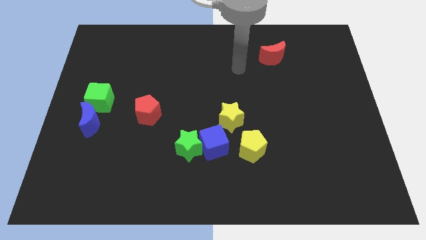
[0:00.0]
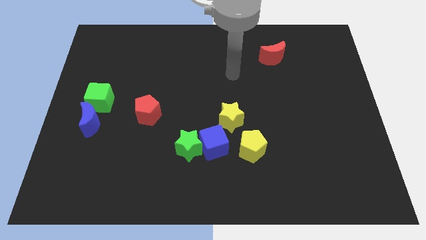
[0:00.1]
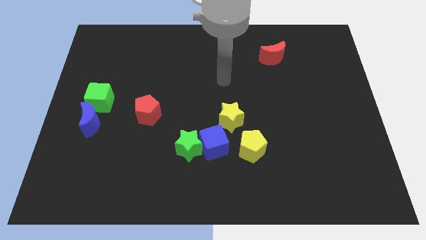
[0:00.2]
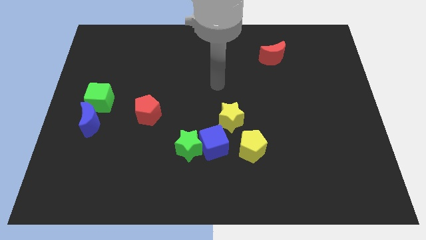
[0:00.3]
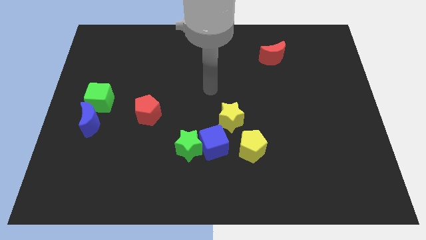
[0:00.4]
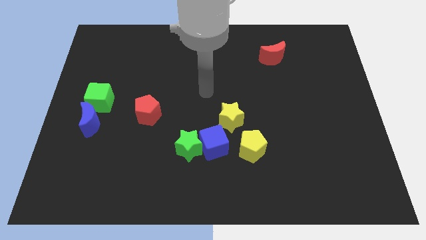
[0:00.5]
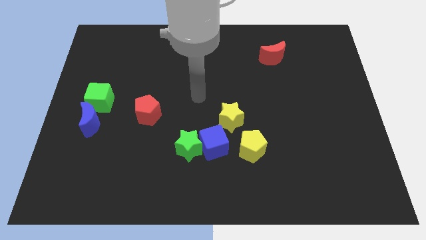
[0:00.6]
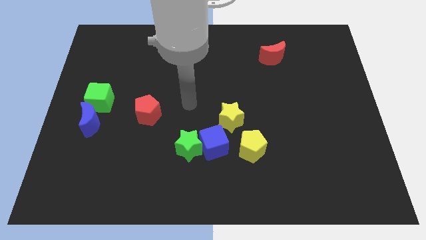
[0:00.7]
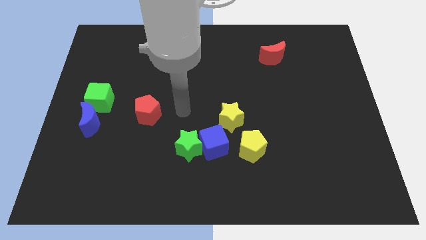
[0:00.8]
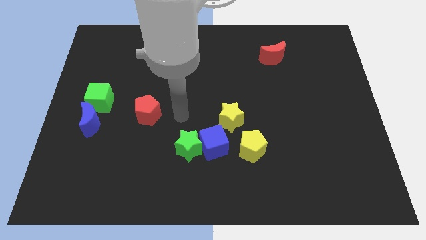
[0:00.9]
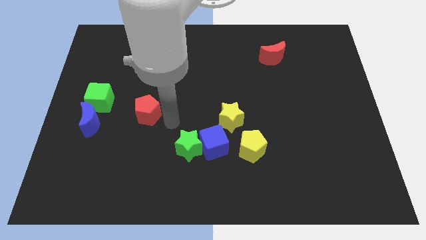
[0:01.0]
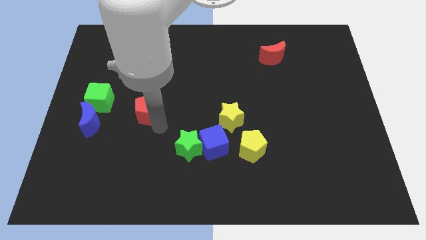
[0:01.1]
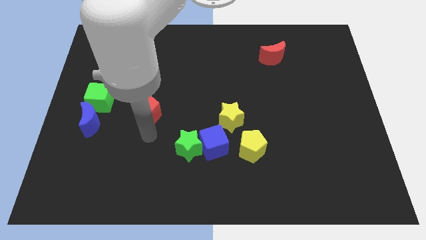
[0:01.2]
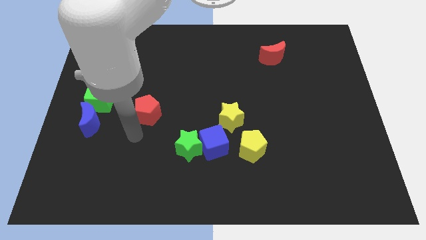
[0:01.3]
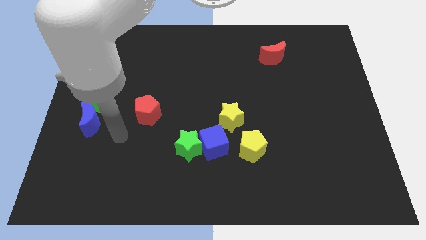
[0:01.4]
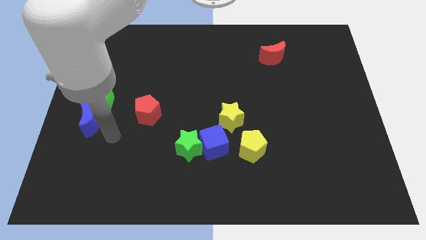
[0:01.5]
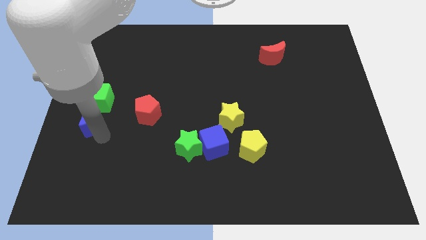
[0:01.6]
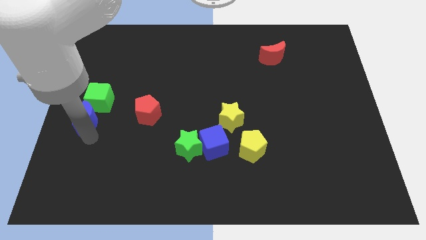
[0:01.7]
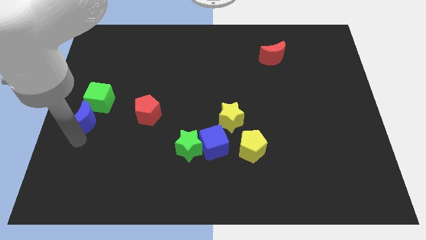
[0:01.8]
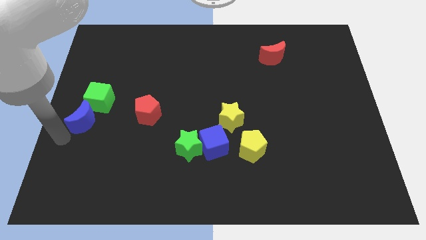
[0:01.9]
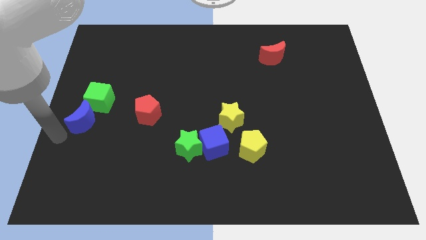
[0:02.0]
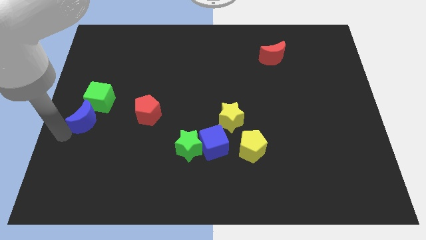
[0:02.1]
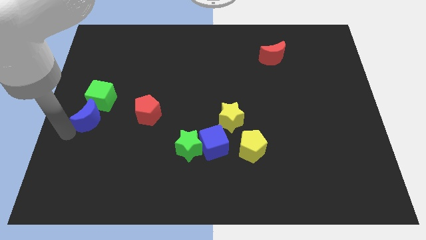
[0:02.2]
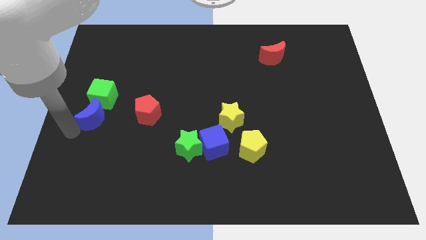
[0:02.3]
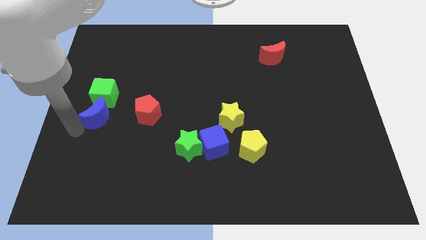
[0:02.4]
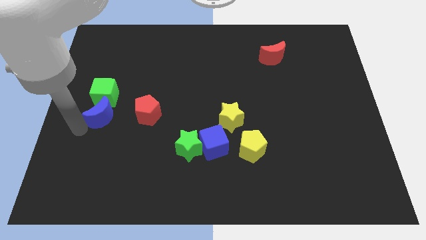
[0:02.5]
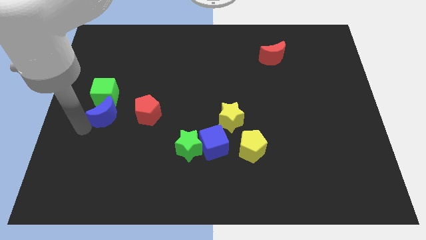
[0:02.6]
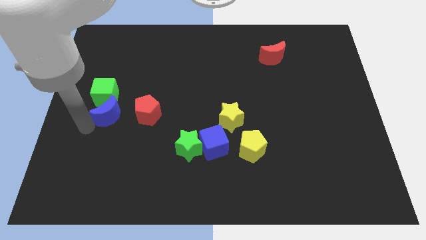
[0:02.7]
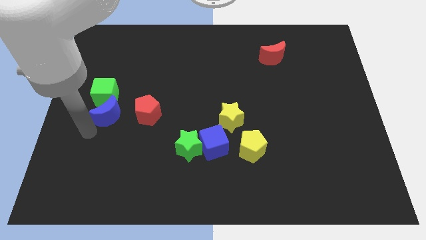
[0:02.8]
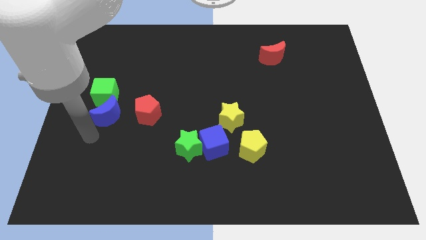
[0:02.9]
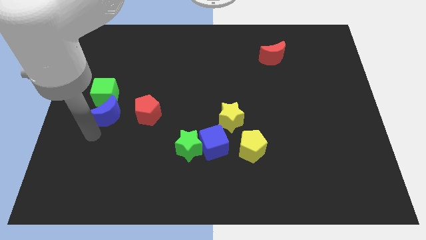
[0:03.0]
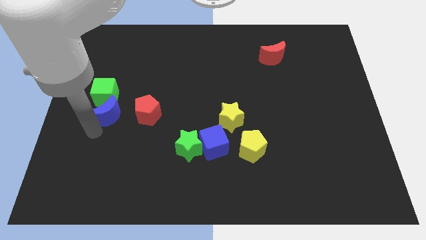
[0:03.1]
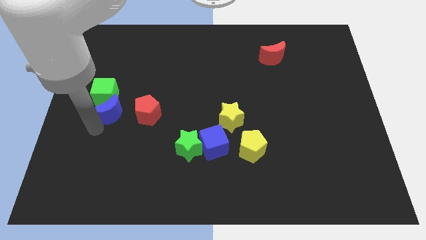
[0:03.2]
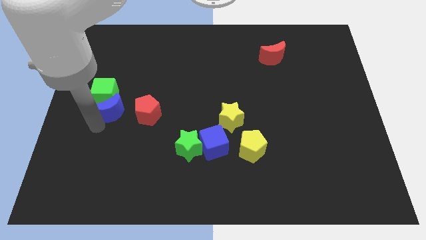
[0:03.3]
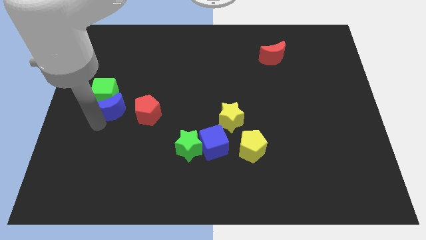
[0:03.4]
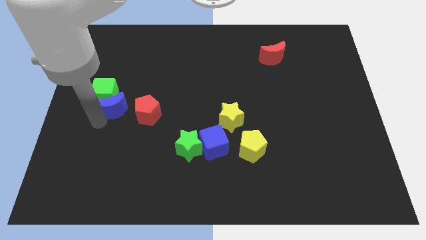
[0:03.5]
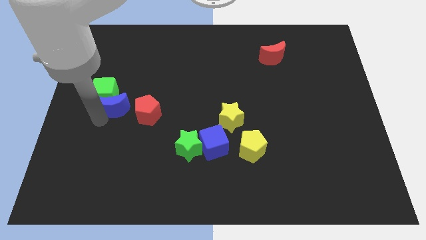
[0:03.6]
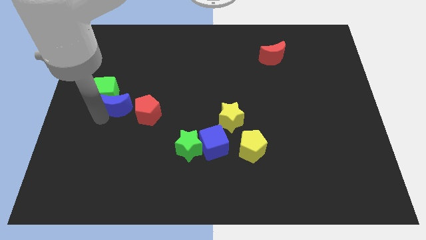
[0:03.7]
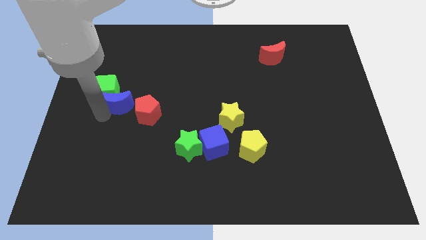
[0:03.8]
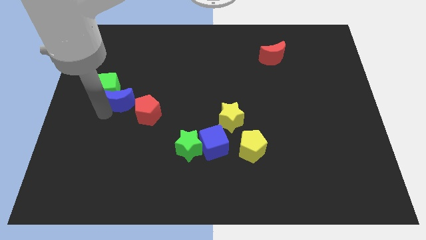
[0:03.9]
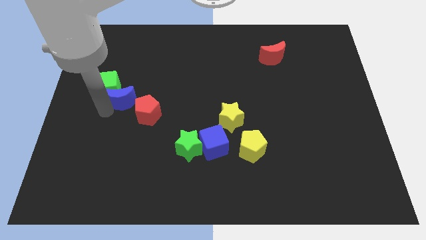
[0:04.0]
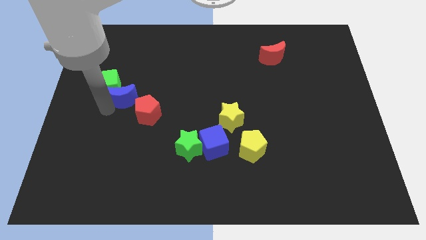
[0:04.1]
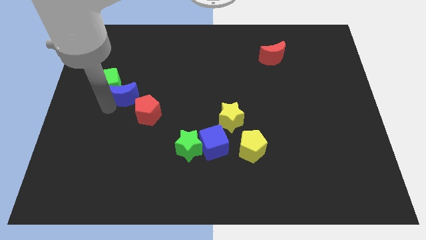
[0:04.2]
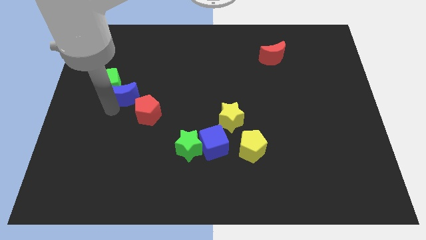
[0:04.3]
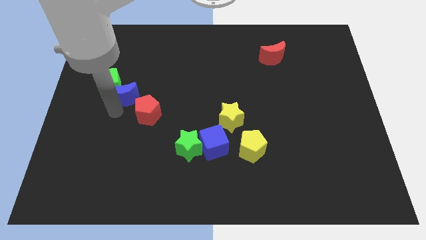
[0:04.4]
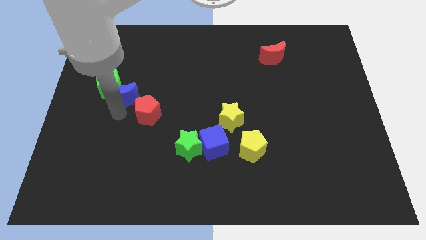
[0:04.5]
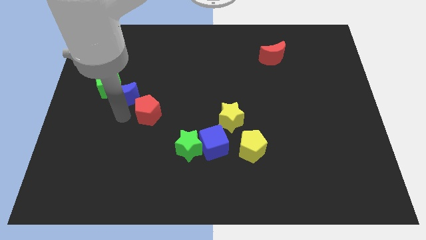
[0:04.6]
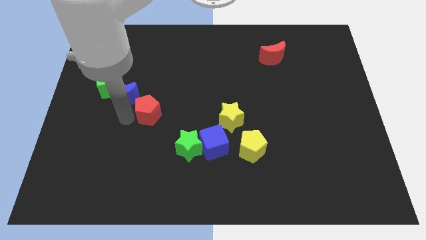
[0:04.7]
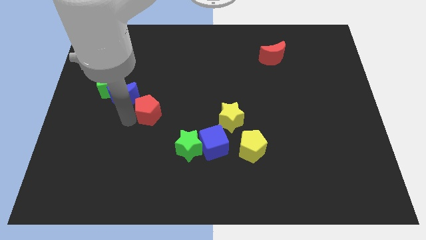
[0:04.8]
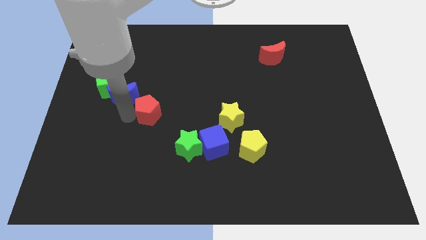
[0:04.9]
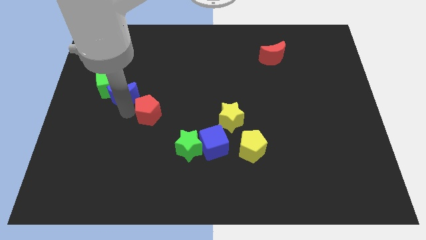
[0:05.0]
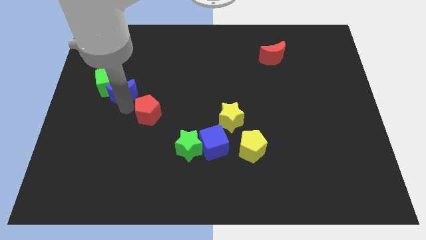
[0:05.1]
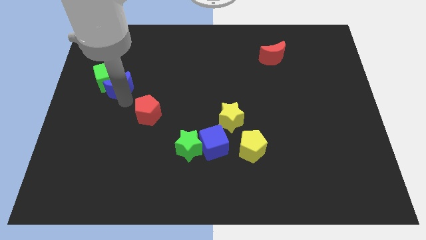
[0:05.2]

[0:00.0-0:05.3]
move the blue moon up a bit

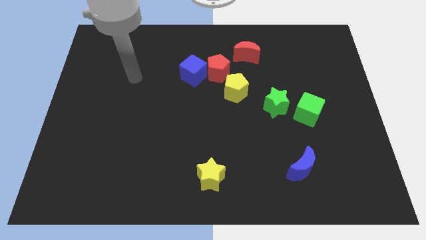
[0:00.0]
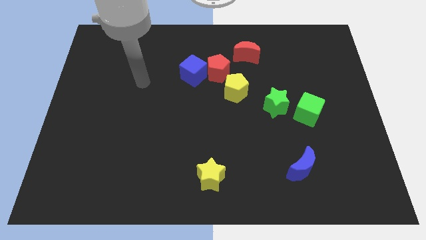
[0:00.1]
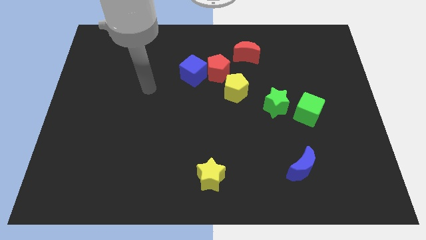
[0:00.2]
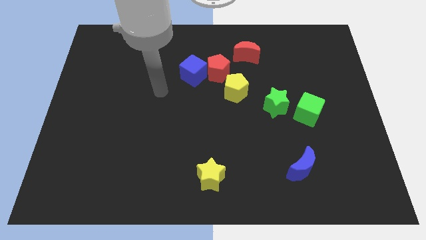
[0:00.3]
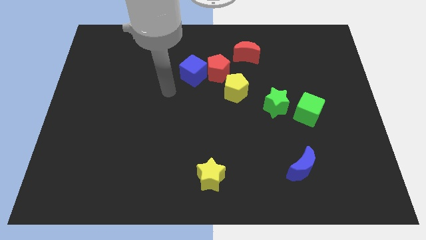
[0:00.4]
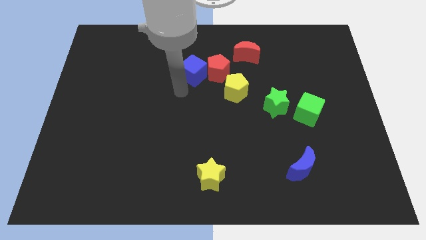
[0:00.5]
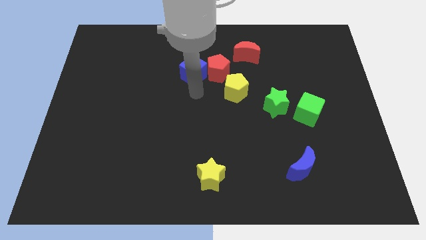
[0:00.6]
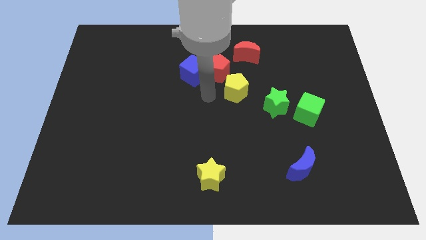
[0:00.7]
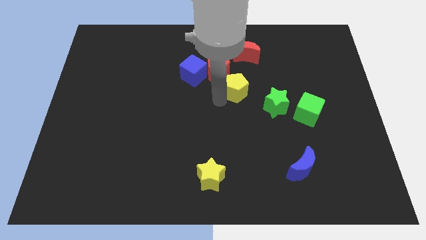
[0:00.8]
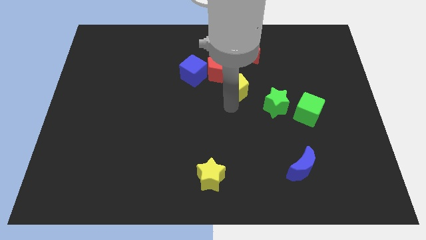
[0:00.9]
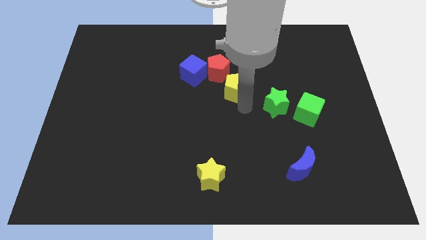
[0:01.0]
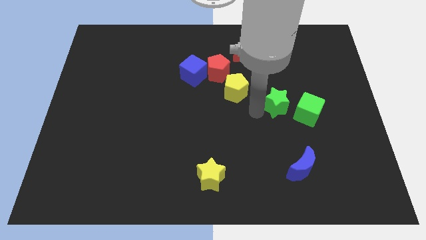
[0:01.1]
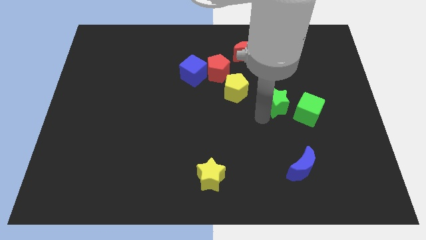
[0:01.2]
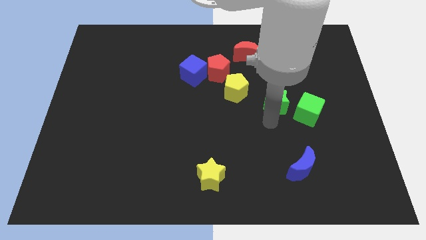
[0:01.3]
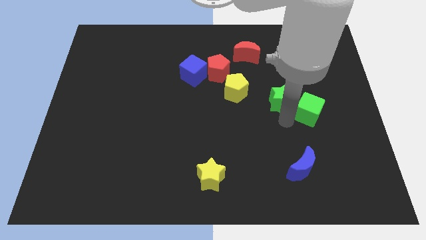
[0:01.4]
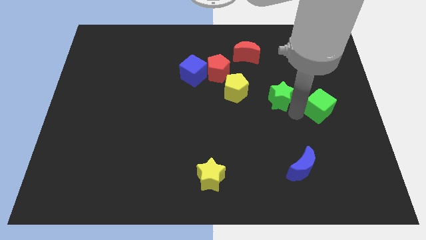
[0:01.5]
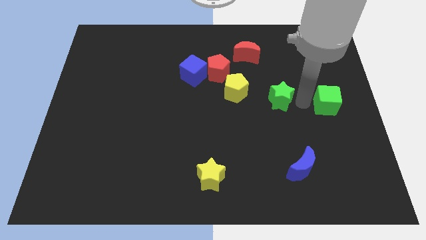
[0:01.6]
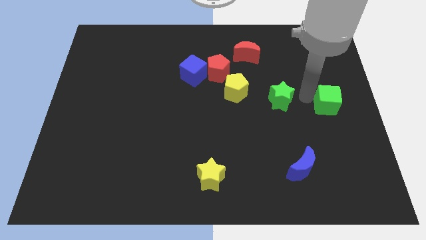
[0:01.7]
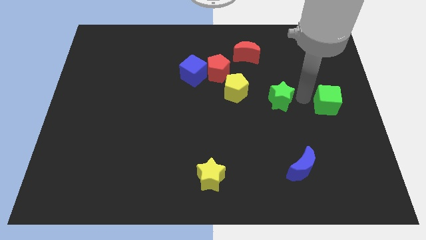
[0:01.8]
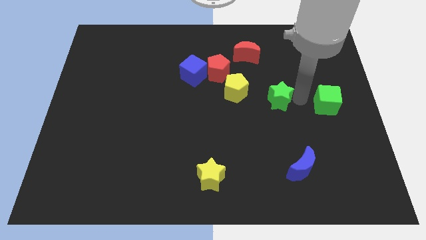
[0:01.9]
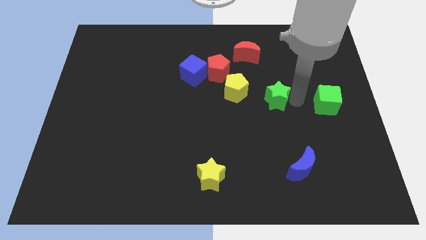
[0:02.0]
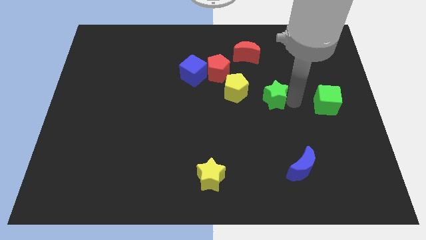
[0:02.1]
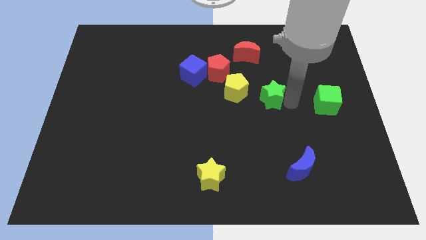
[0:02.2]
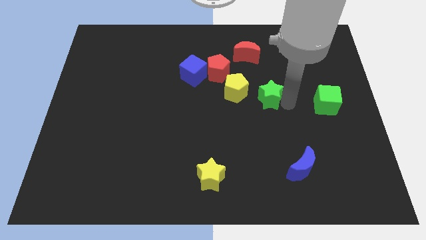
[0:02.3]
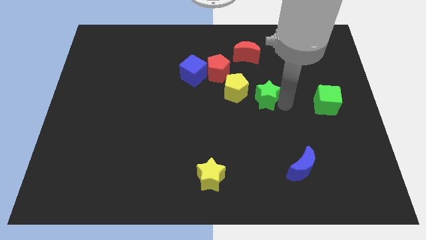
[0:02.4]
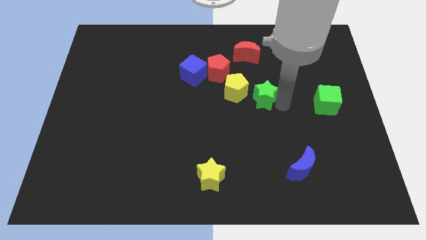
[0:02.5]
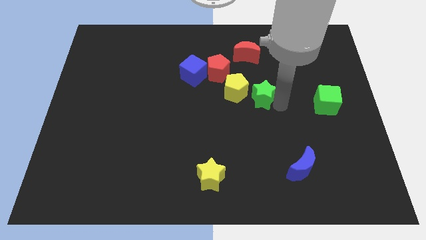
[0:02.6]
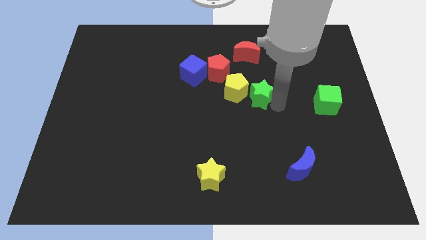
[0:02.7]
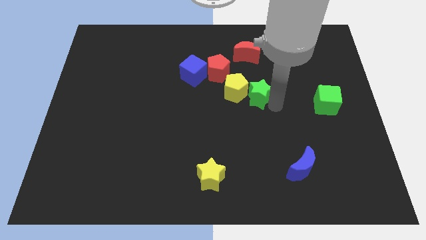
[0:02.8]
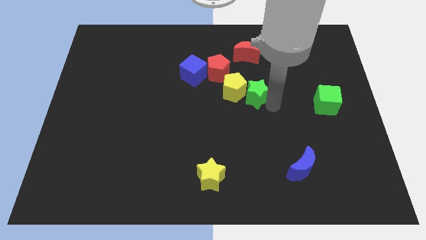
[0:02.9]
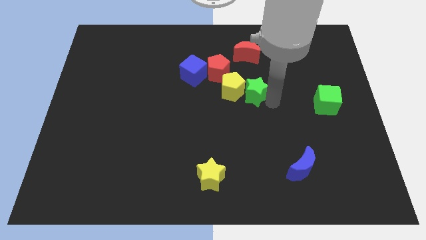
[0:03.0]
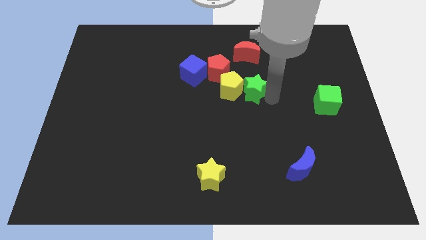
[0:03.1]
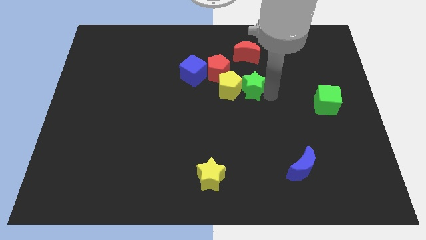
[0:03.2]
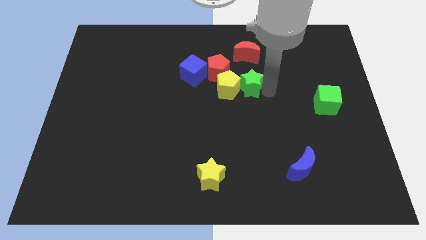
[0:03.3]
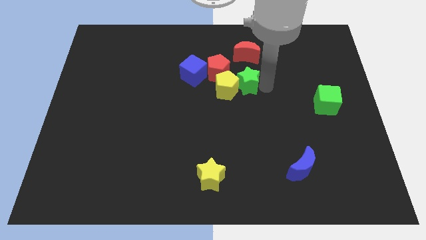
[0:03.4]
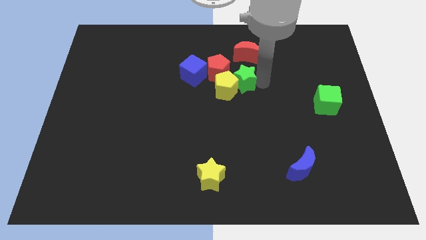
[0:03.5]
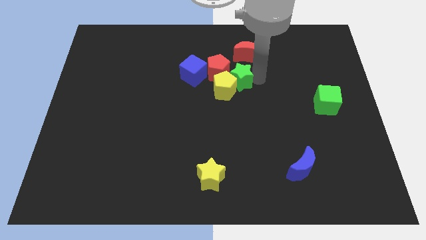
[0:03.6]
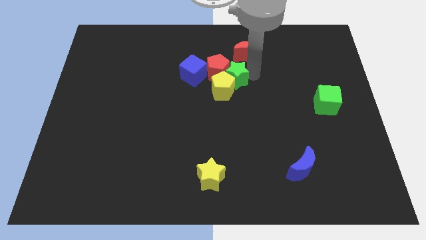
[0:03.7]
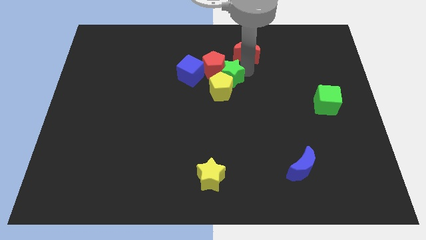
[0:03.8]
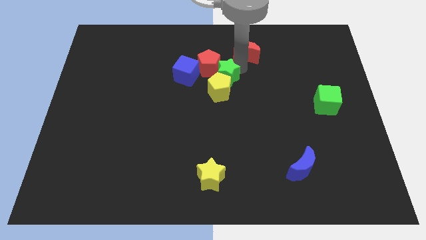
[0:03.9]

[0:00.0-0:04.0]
move the green star a little bit left
